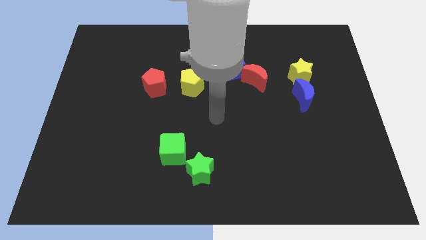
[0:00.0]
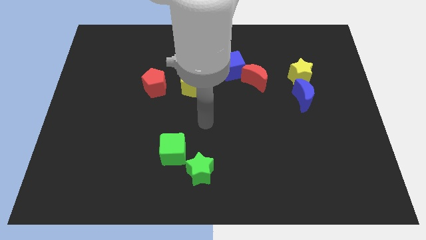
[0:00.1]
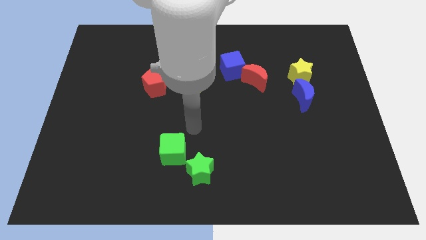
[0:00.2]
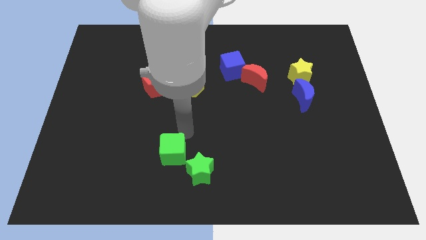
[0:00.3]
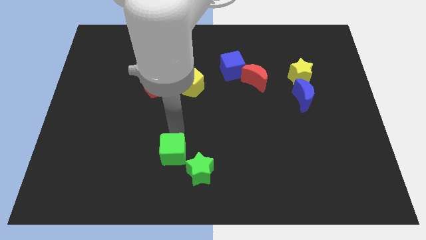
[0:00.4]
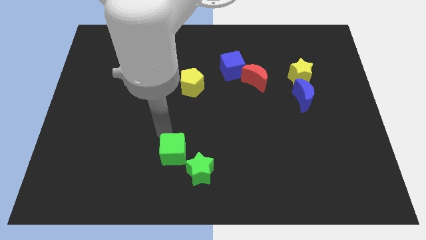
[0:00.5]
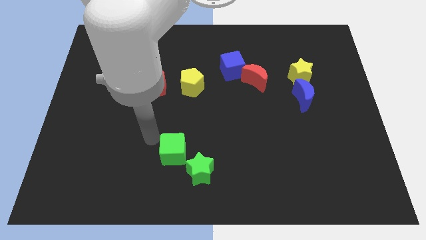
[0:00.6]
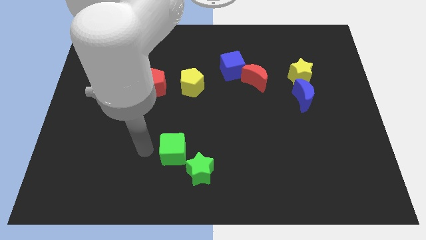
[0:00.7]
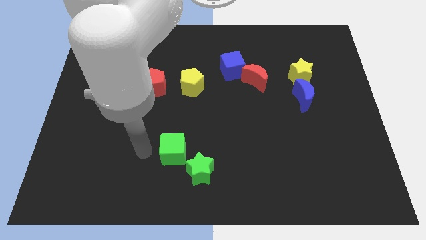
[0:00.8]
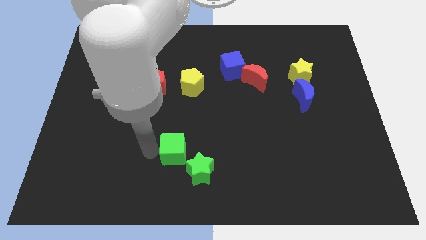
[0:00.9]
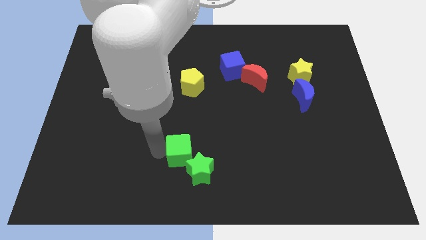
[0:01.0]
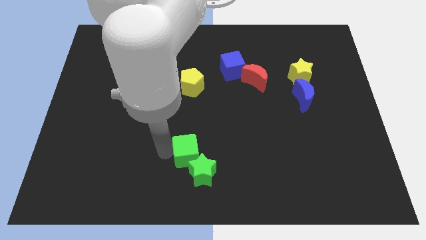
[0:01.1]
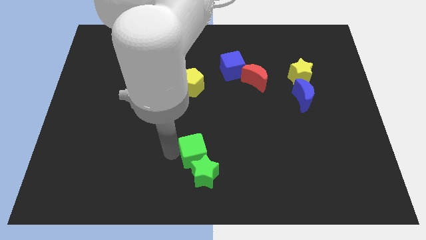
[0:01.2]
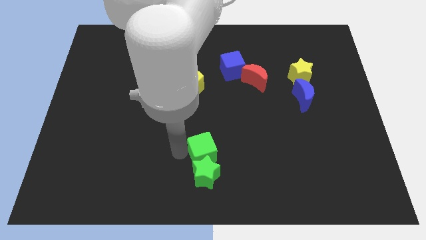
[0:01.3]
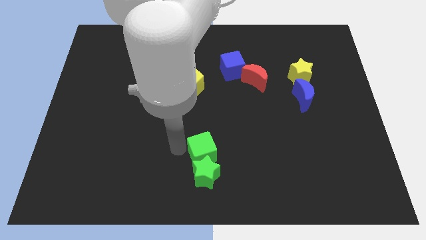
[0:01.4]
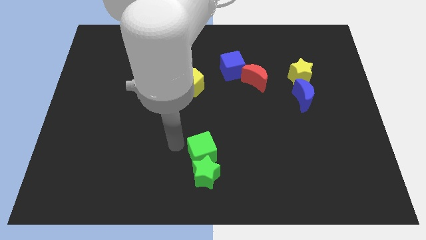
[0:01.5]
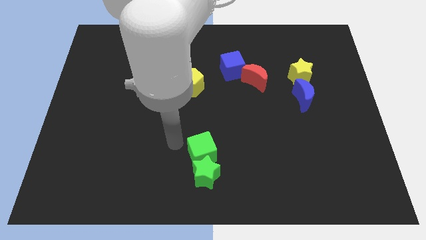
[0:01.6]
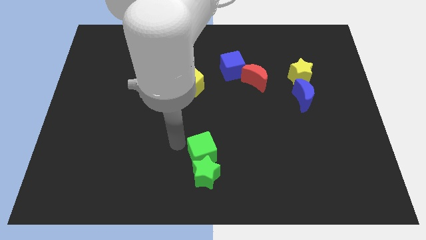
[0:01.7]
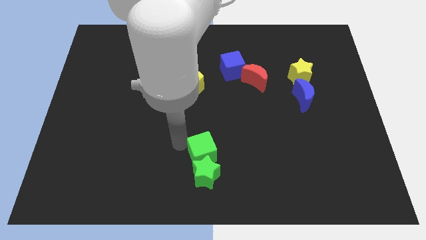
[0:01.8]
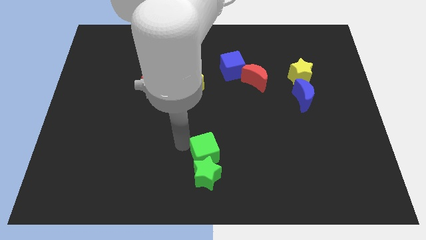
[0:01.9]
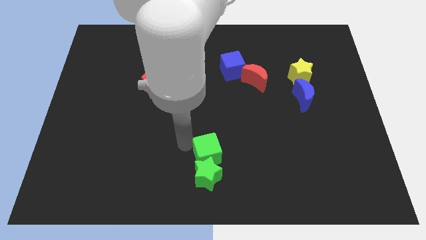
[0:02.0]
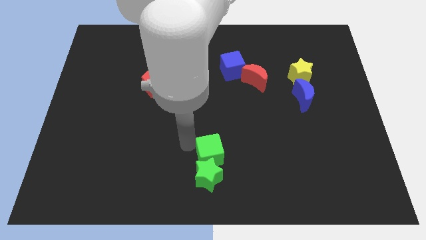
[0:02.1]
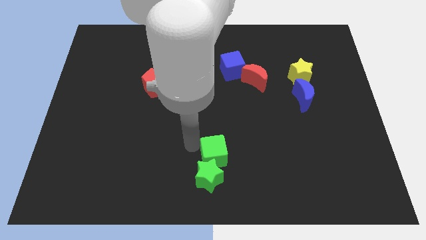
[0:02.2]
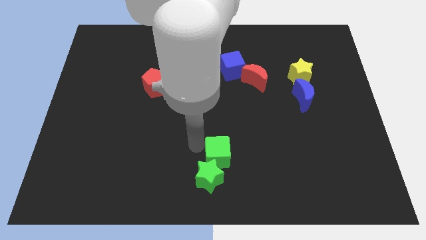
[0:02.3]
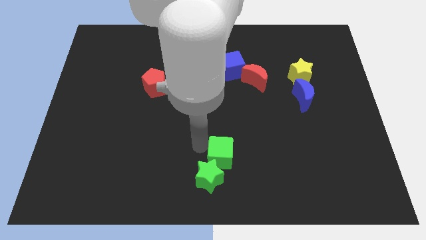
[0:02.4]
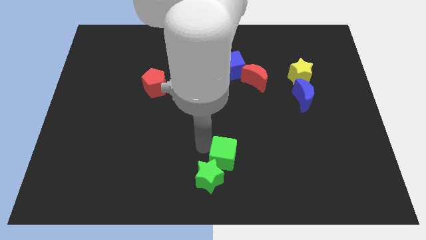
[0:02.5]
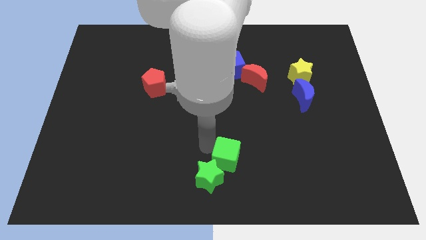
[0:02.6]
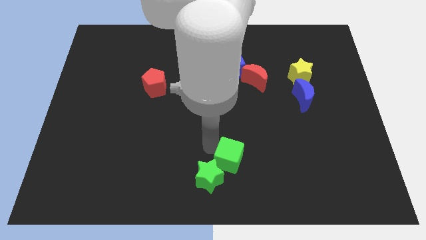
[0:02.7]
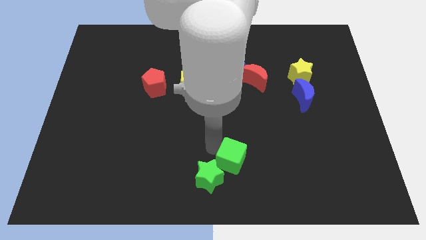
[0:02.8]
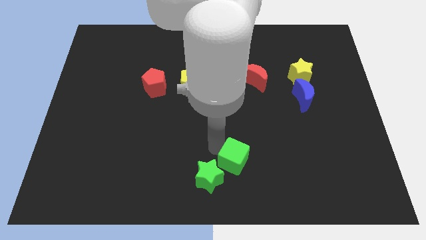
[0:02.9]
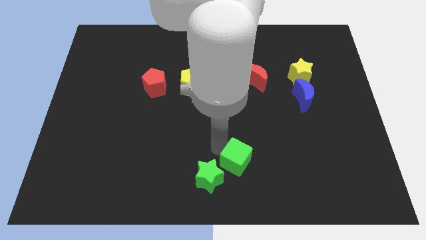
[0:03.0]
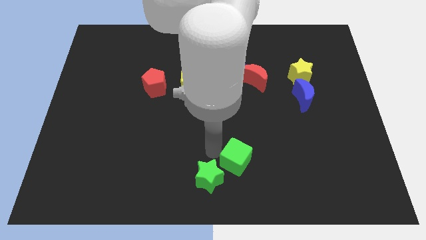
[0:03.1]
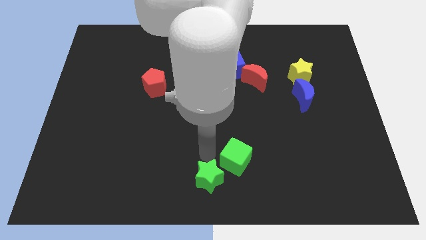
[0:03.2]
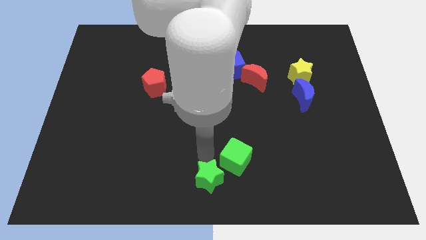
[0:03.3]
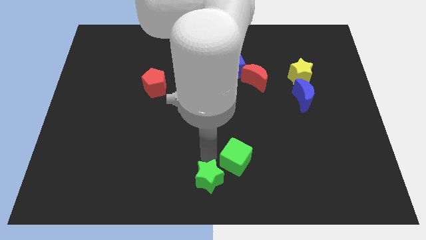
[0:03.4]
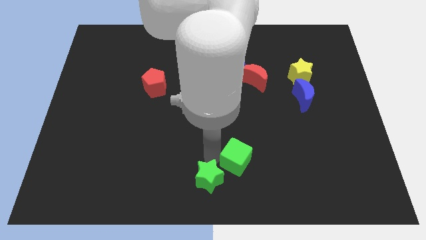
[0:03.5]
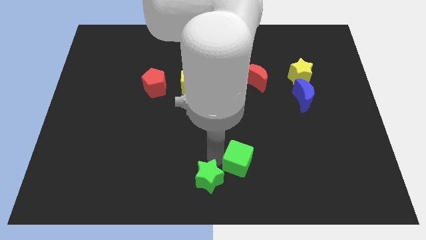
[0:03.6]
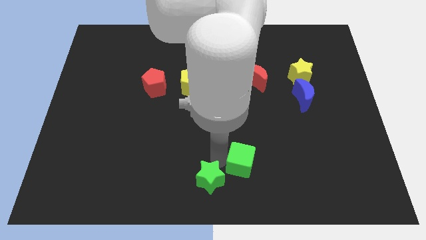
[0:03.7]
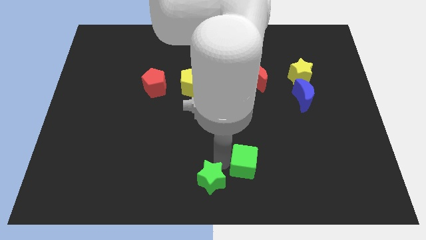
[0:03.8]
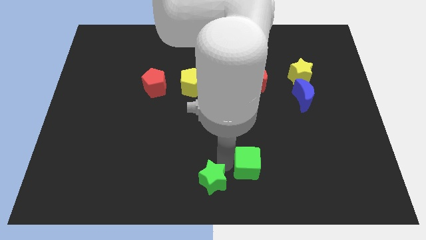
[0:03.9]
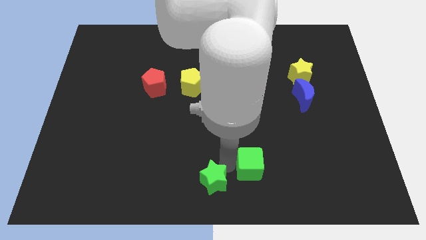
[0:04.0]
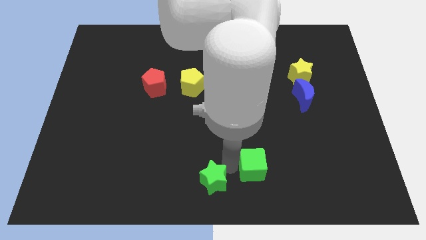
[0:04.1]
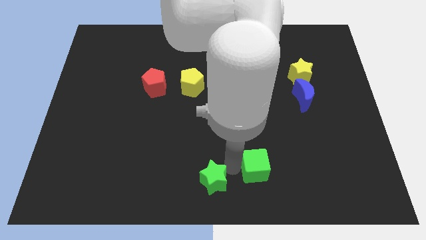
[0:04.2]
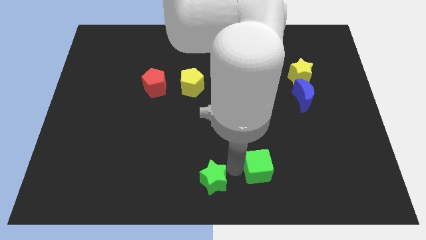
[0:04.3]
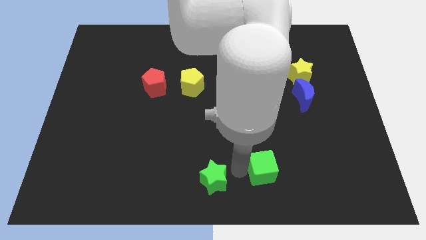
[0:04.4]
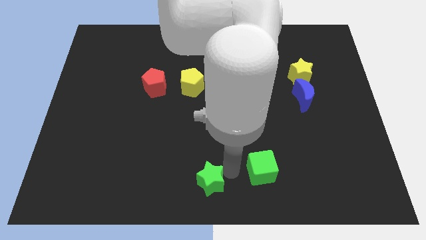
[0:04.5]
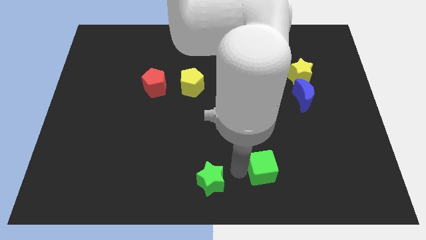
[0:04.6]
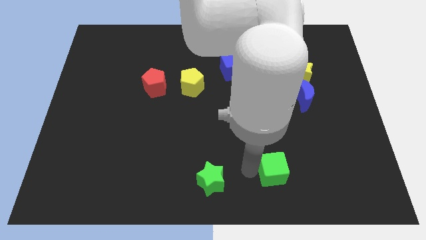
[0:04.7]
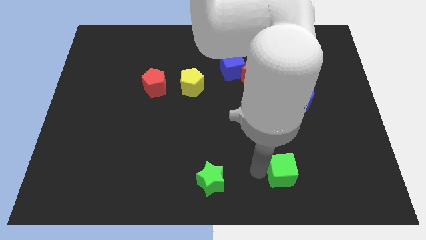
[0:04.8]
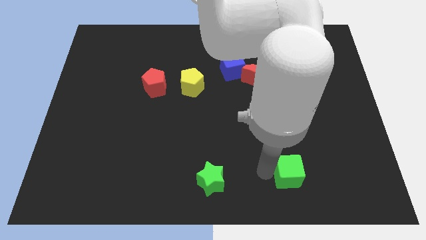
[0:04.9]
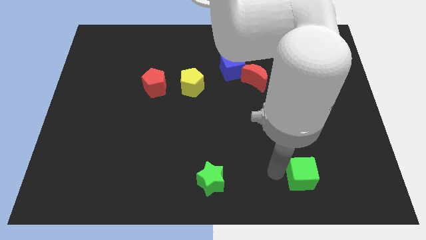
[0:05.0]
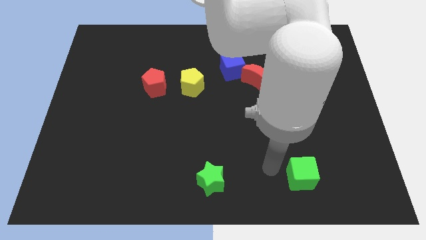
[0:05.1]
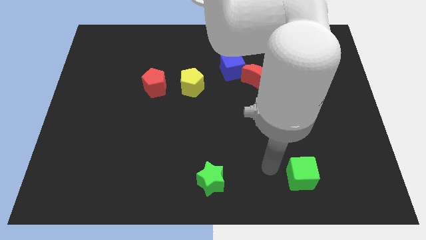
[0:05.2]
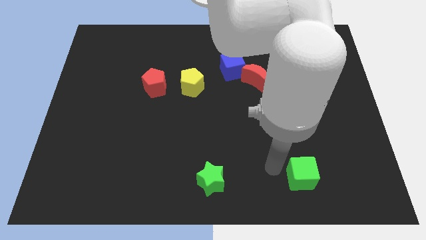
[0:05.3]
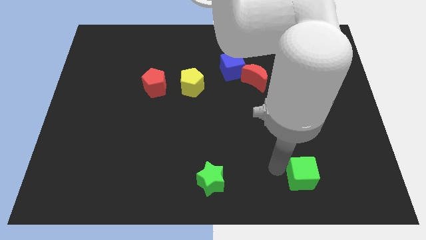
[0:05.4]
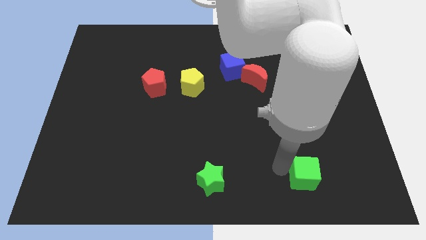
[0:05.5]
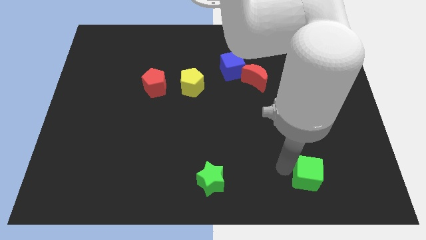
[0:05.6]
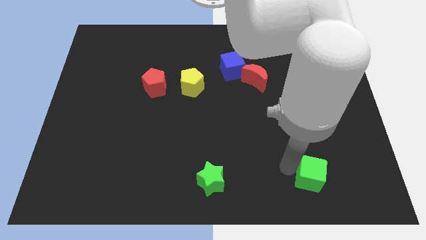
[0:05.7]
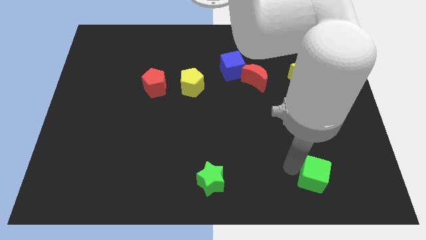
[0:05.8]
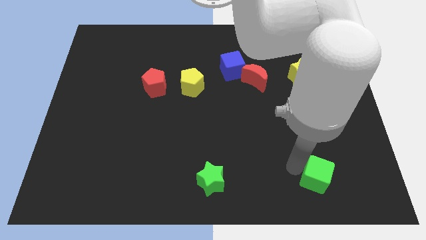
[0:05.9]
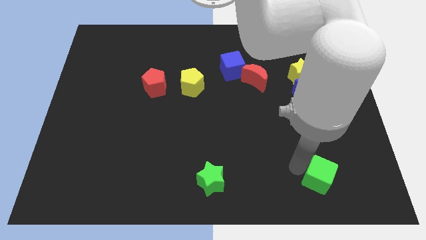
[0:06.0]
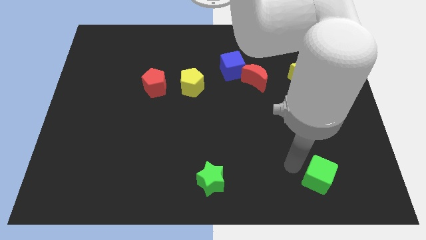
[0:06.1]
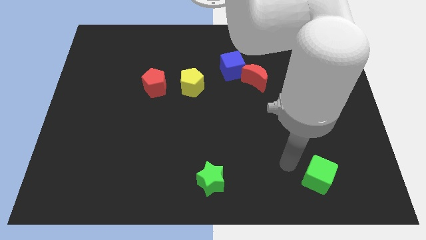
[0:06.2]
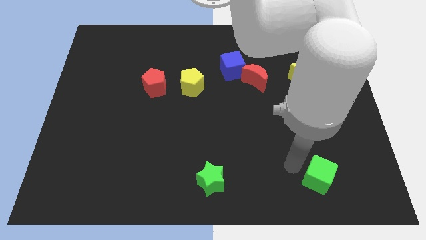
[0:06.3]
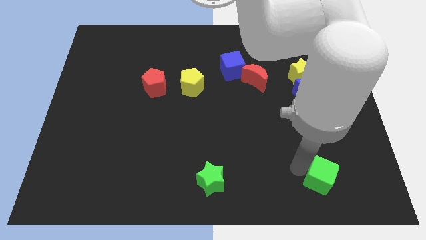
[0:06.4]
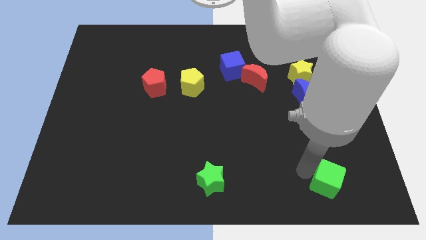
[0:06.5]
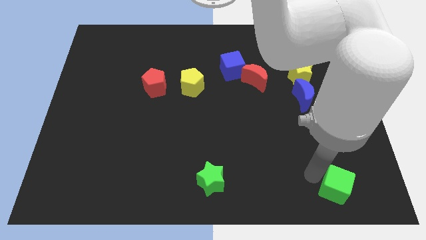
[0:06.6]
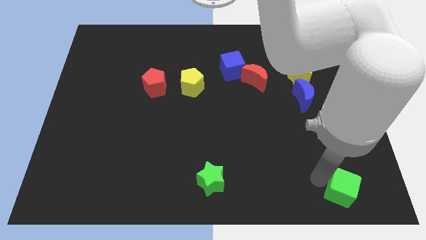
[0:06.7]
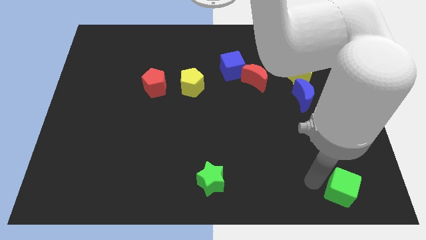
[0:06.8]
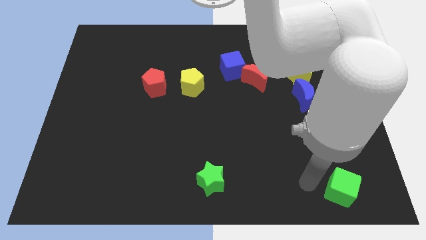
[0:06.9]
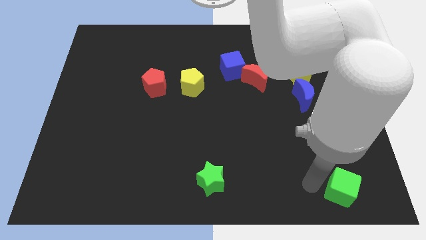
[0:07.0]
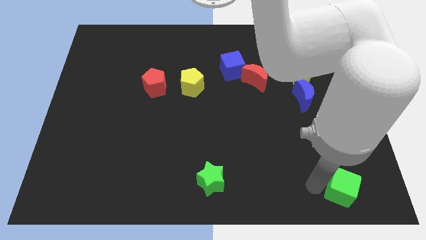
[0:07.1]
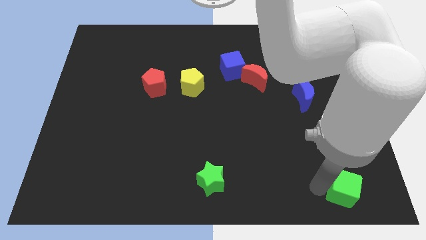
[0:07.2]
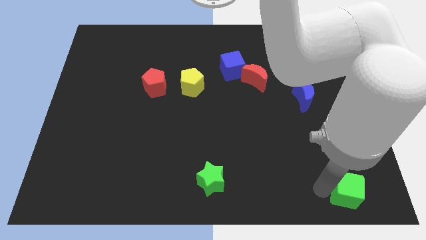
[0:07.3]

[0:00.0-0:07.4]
push the green cube to the bottom right corner
